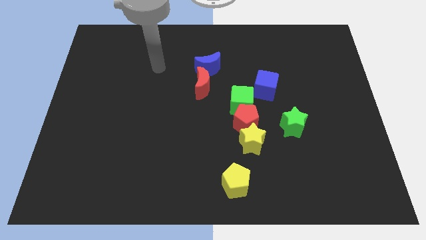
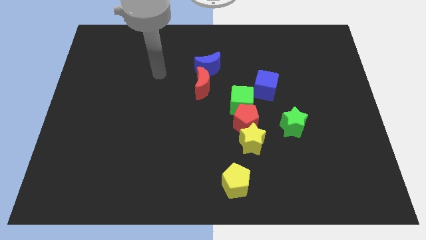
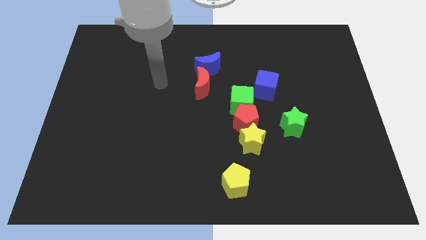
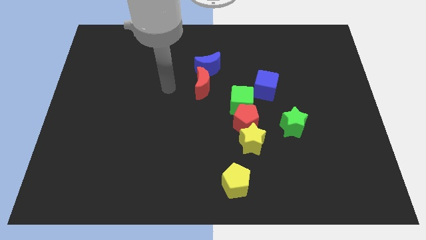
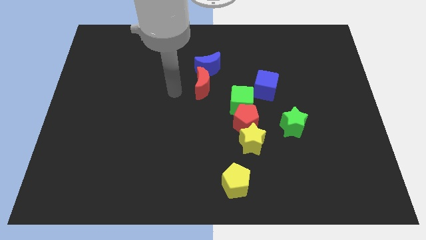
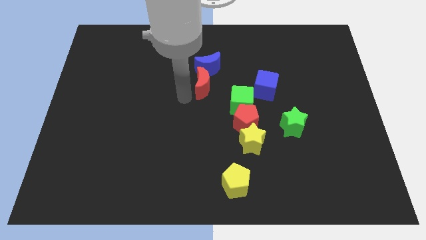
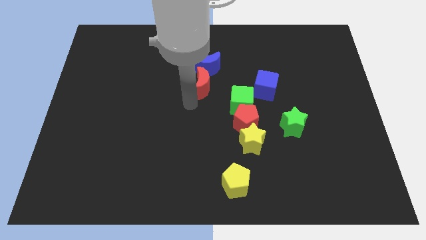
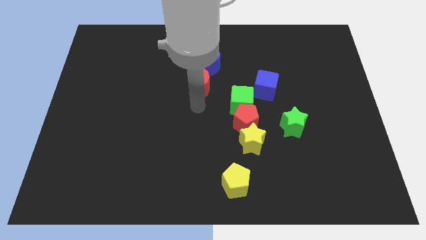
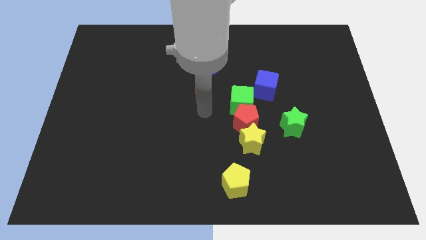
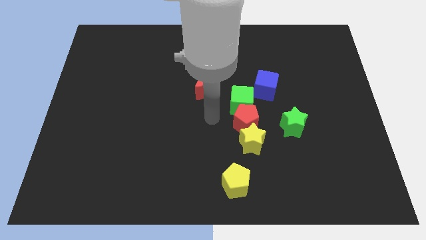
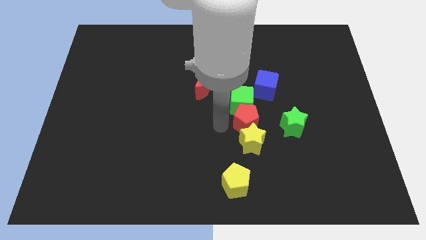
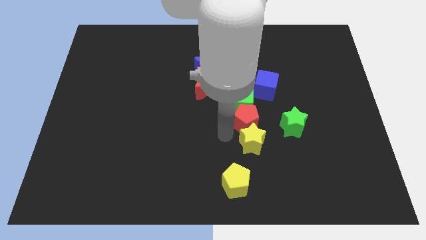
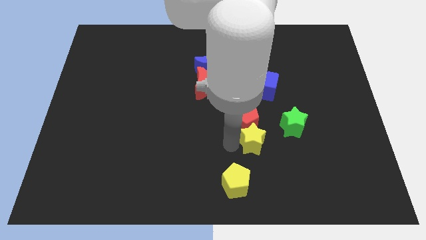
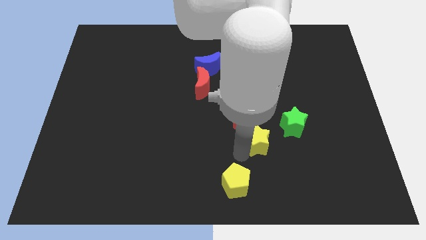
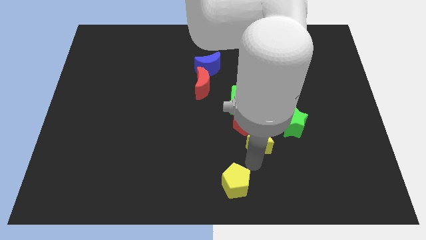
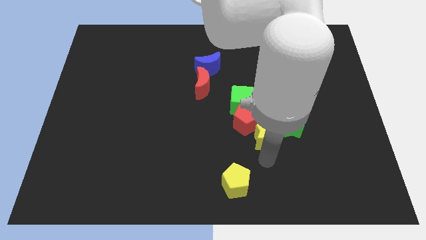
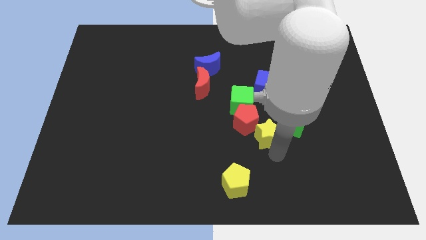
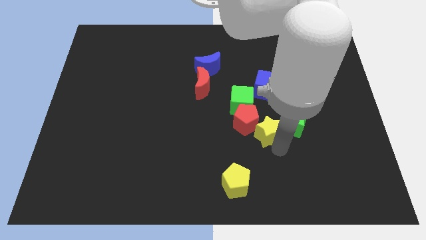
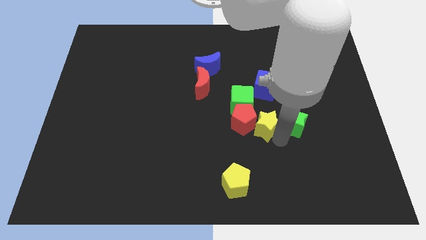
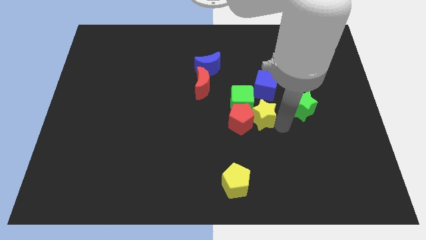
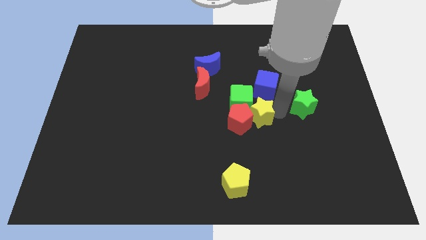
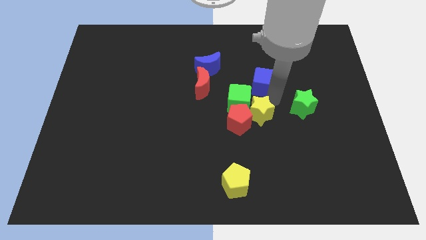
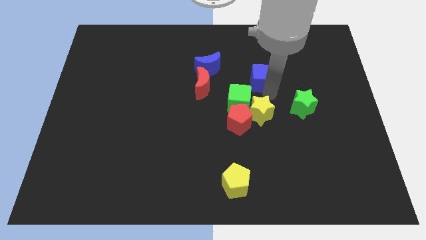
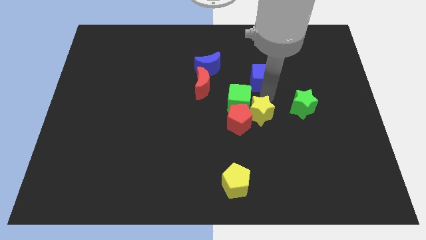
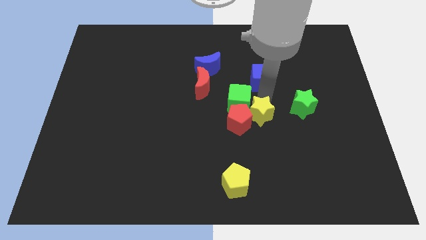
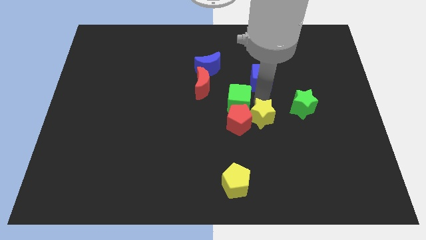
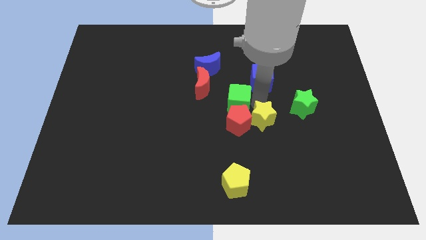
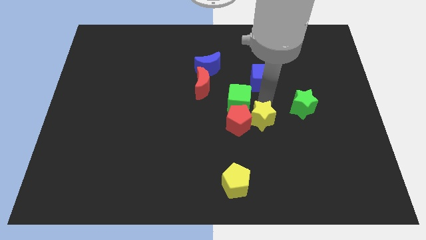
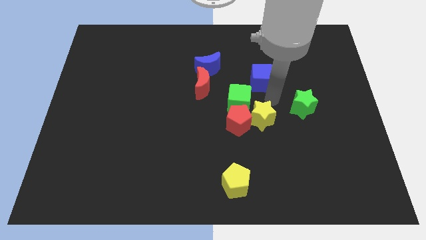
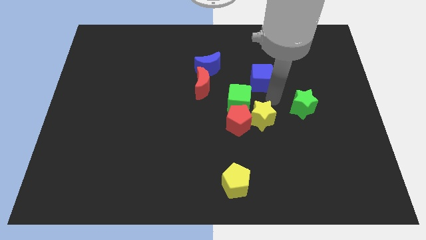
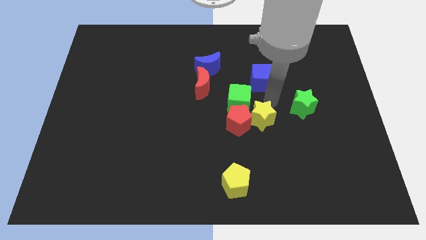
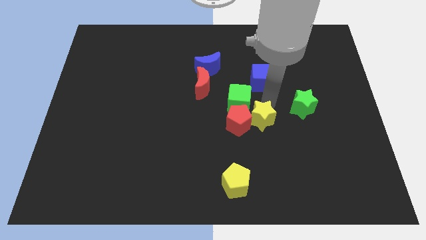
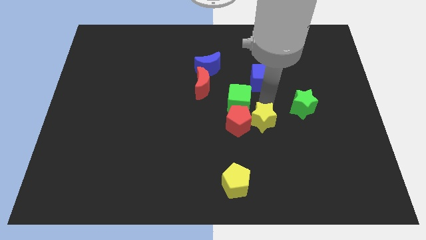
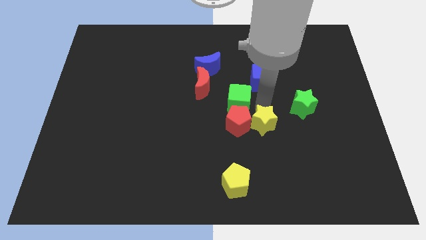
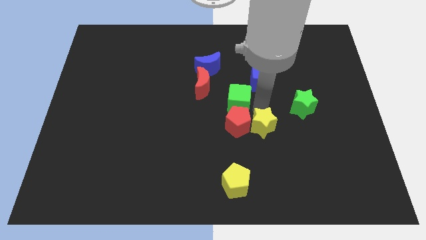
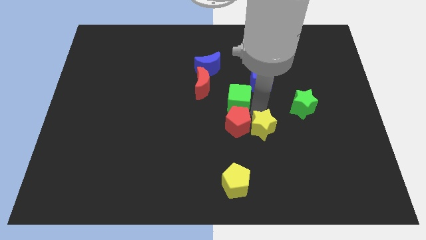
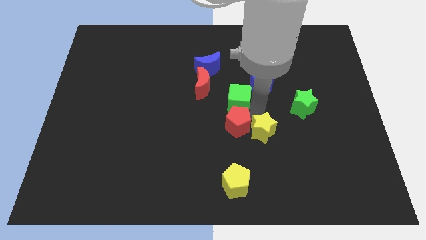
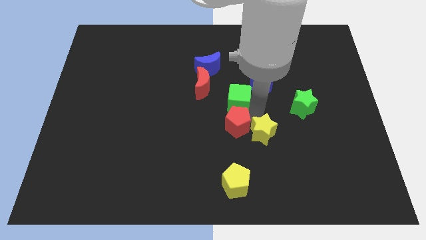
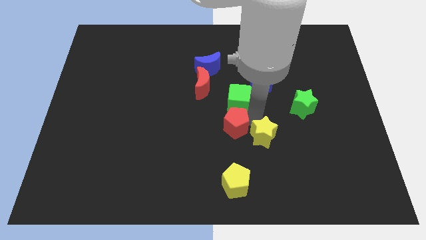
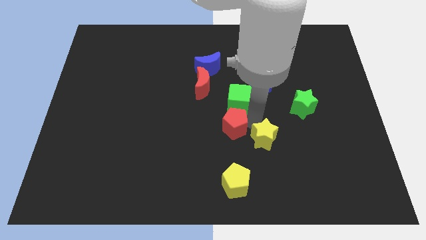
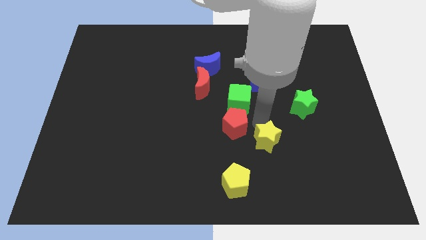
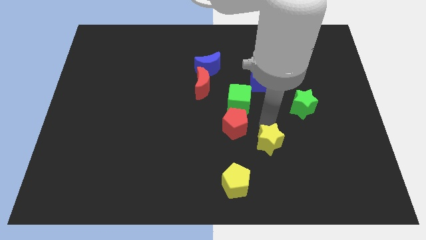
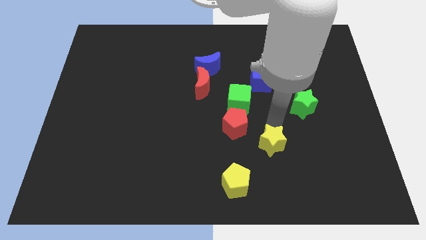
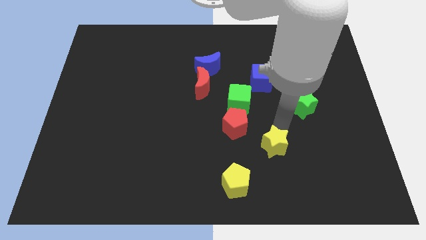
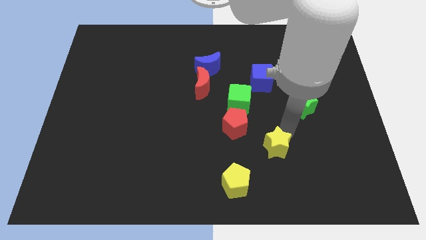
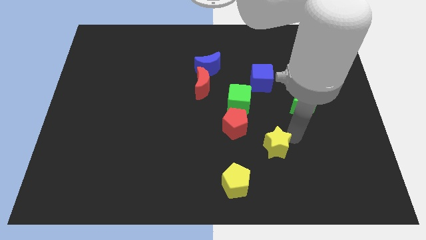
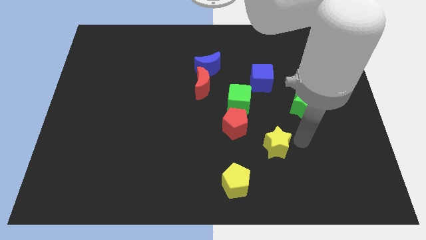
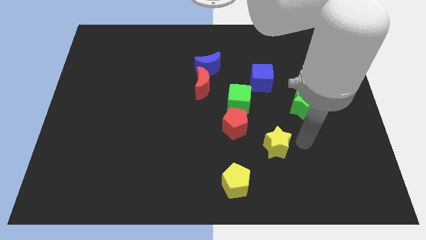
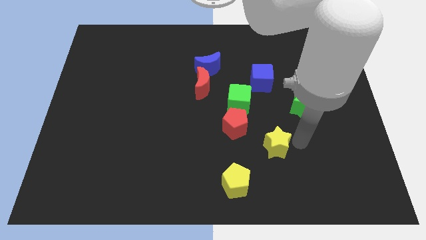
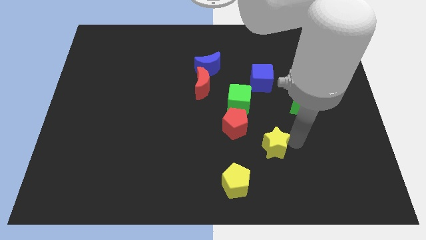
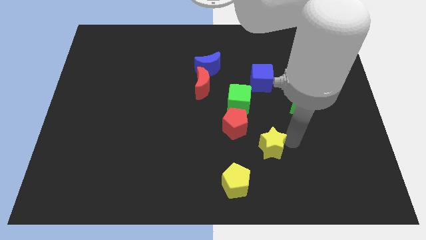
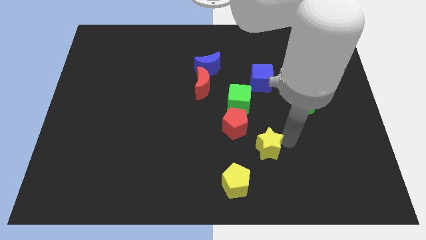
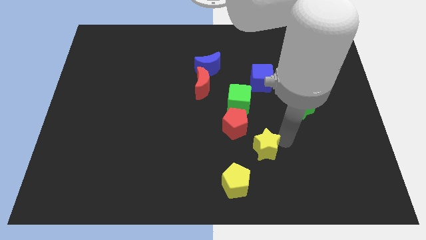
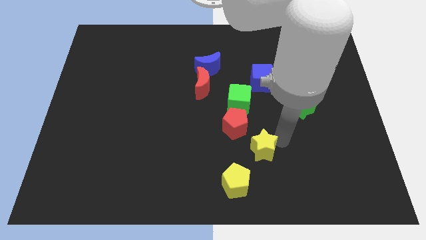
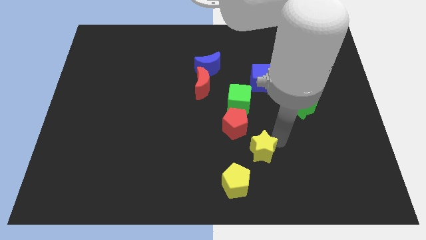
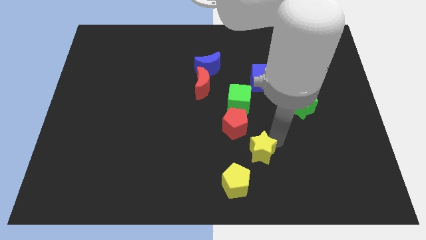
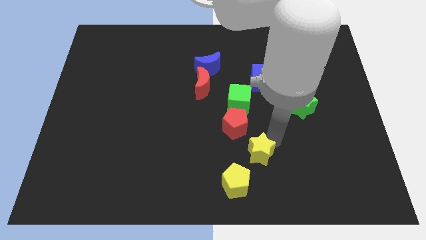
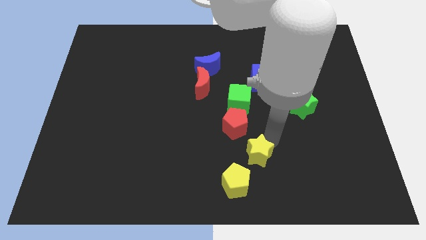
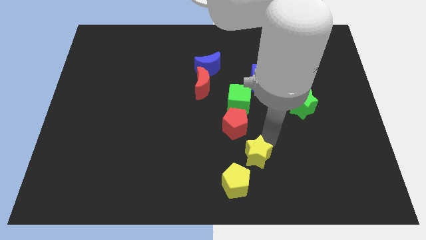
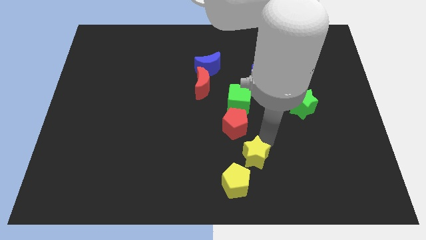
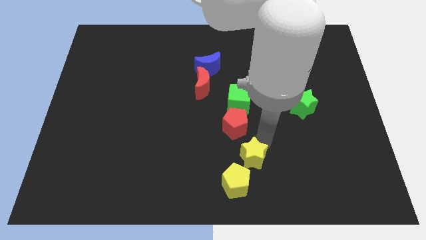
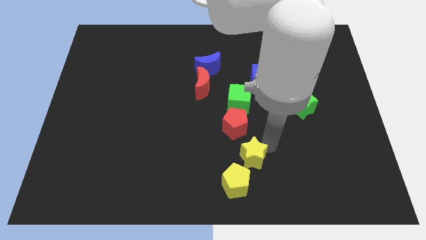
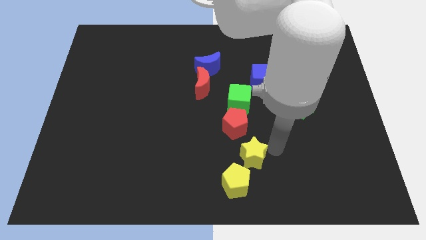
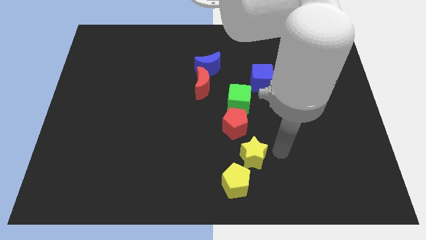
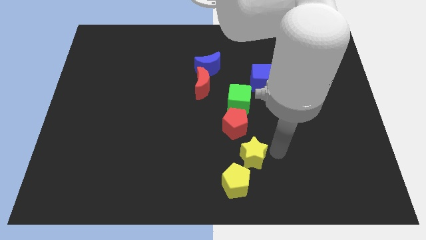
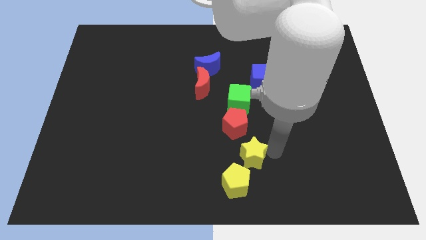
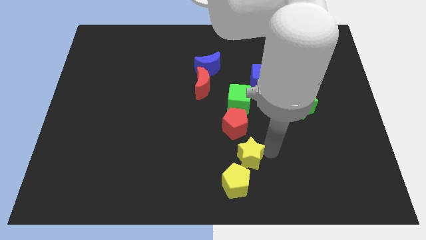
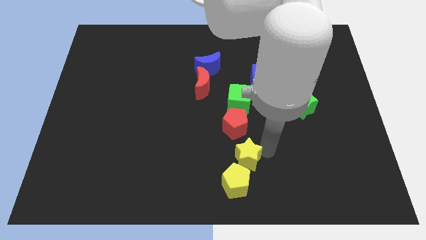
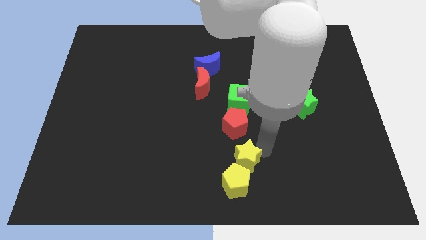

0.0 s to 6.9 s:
push the yellow star to the bottom side
